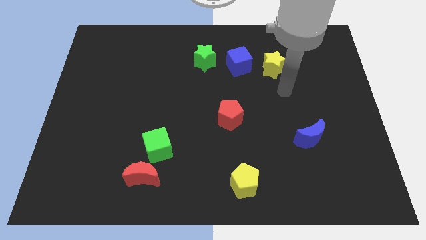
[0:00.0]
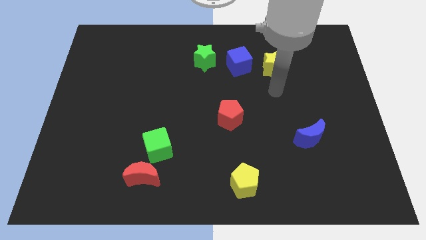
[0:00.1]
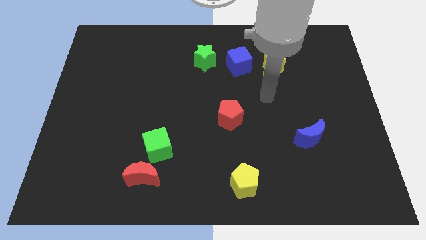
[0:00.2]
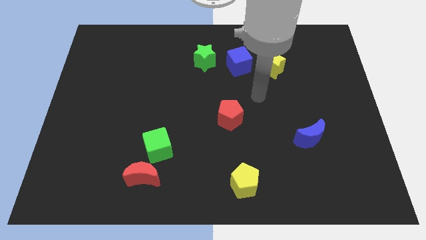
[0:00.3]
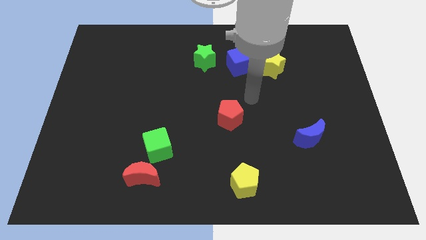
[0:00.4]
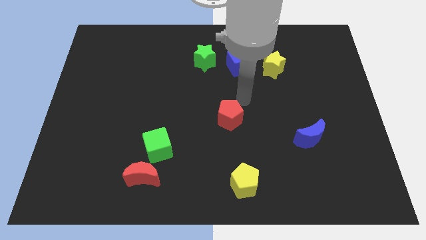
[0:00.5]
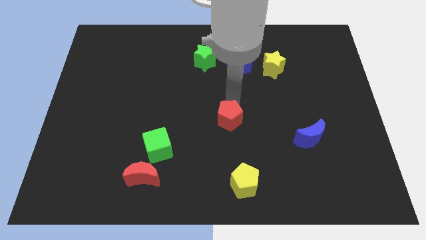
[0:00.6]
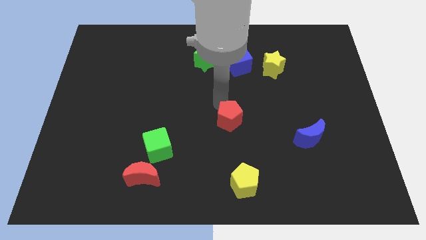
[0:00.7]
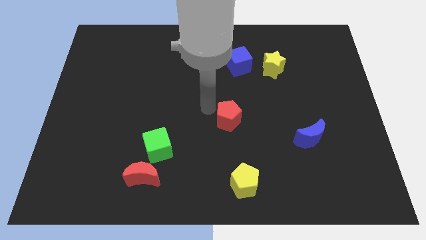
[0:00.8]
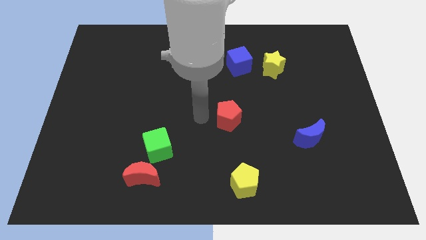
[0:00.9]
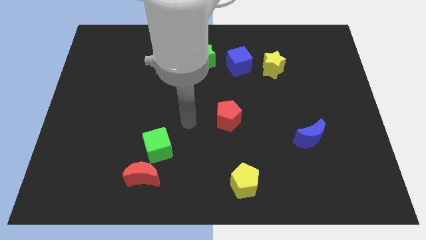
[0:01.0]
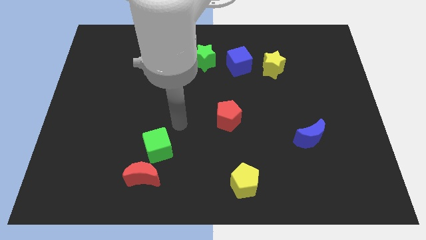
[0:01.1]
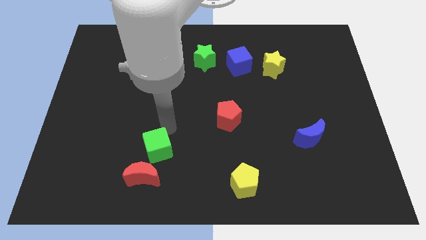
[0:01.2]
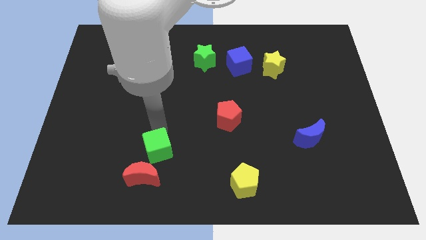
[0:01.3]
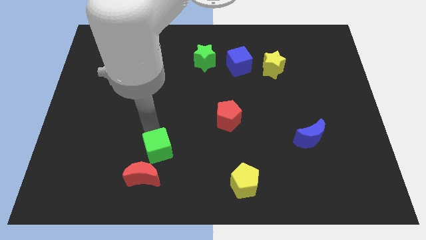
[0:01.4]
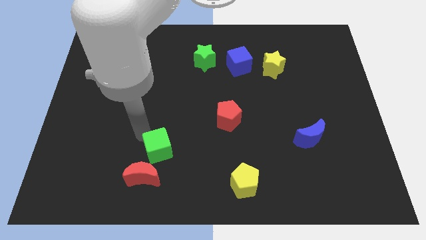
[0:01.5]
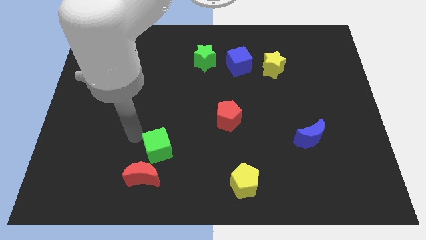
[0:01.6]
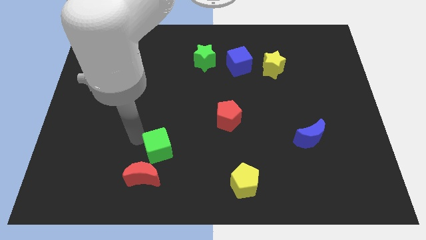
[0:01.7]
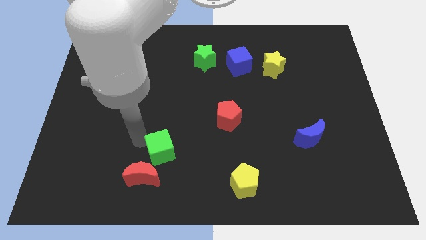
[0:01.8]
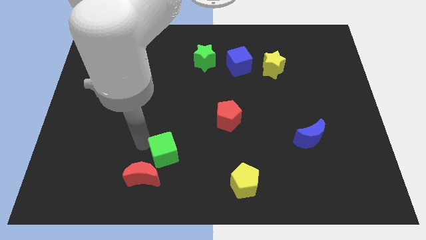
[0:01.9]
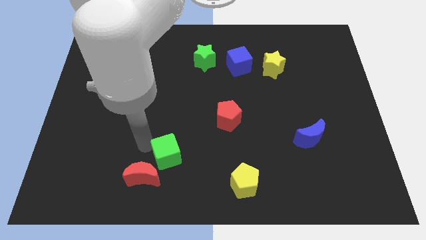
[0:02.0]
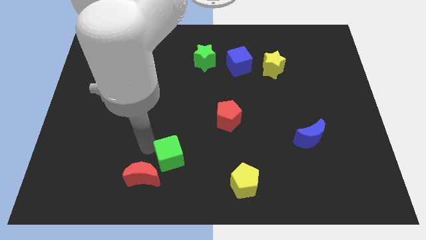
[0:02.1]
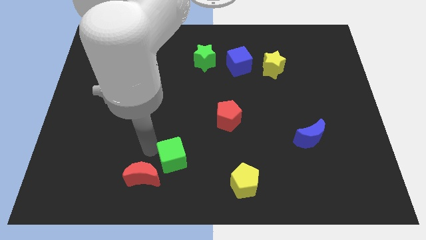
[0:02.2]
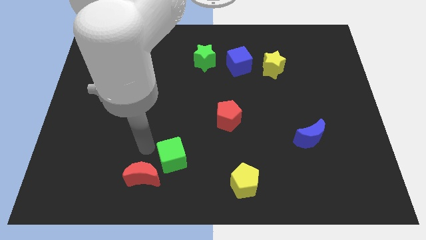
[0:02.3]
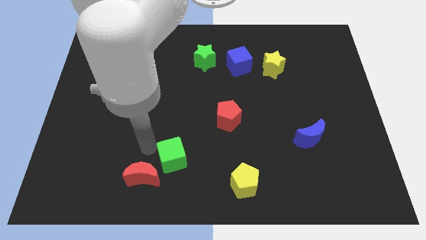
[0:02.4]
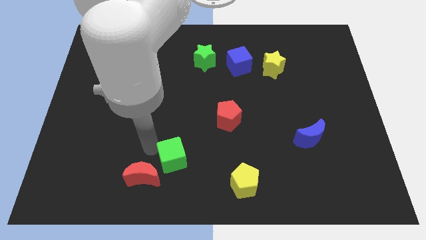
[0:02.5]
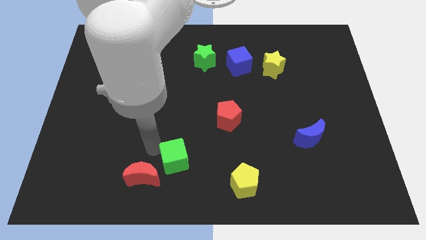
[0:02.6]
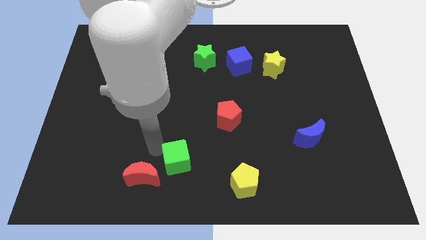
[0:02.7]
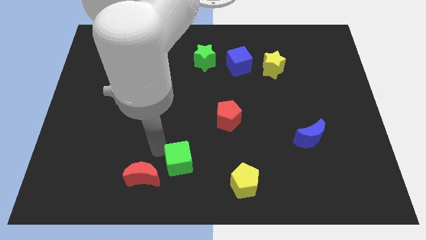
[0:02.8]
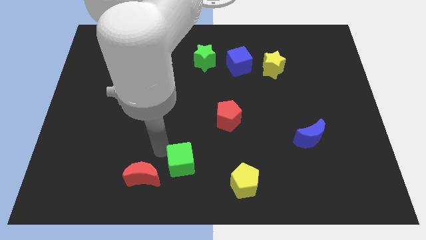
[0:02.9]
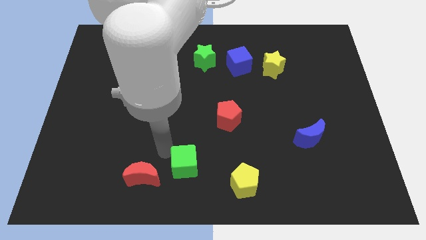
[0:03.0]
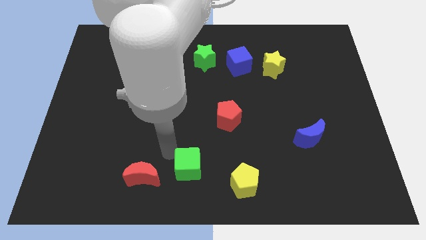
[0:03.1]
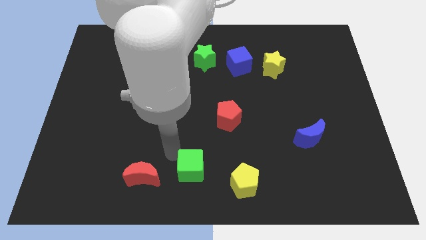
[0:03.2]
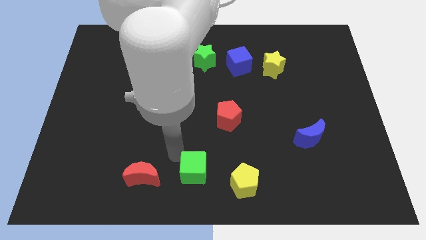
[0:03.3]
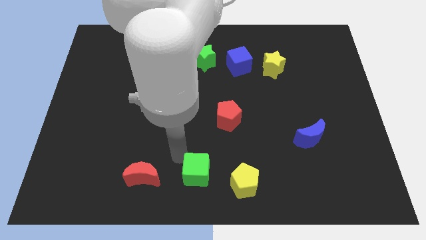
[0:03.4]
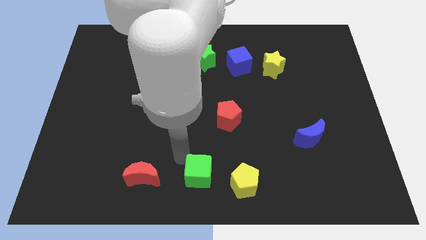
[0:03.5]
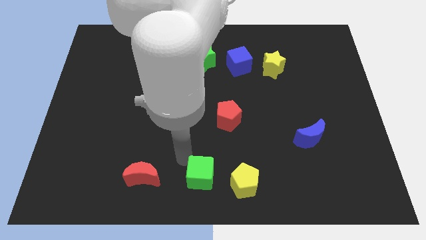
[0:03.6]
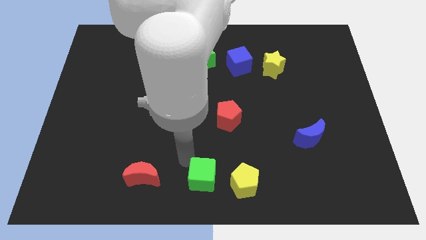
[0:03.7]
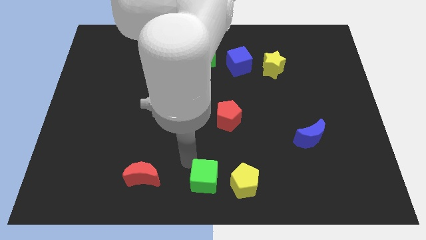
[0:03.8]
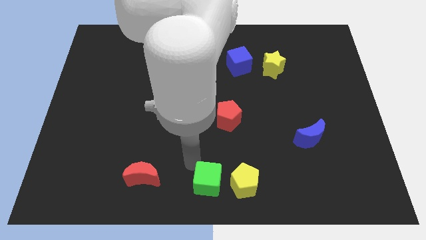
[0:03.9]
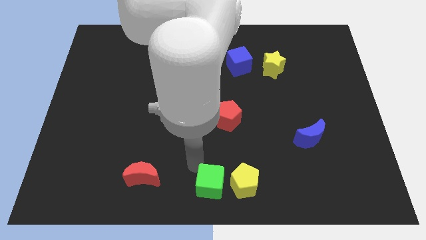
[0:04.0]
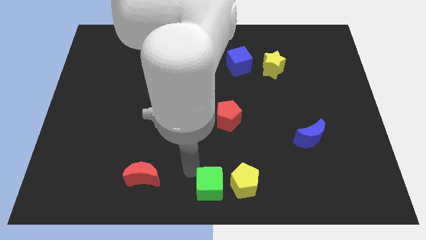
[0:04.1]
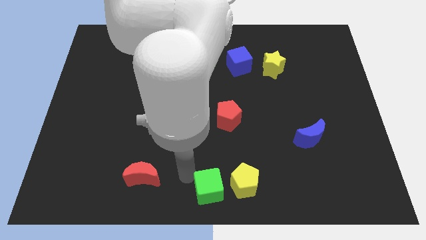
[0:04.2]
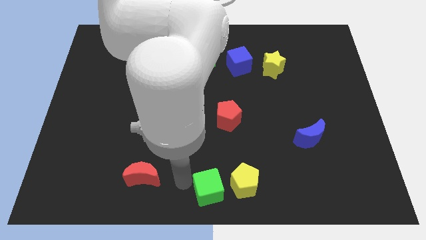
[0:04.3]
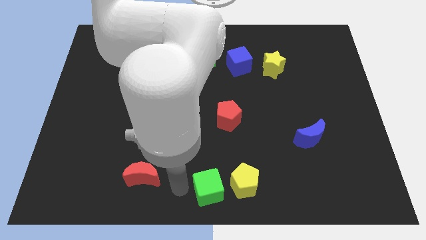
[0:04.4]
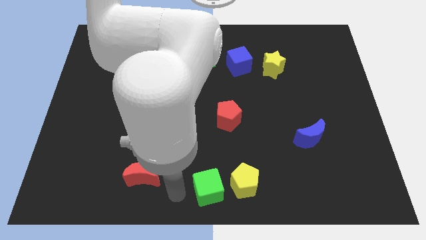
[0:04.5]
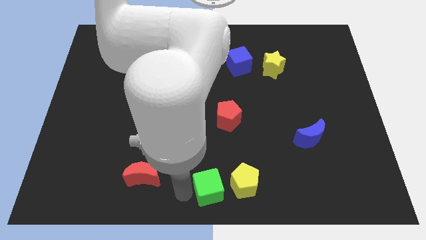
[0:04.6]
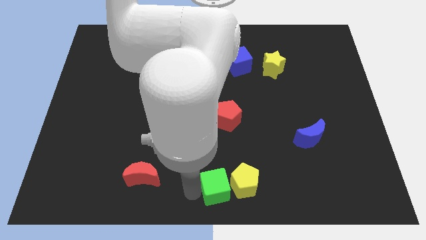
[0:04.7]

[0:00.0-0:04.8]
put the green cube close to the yellow pentagon

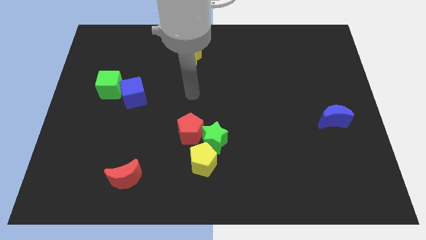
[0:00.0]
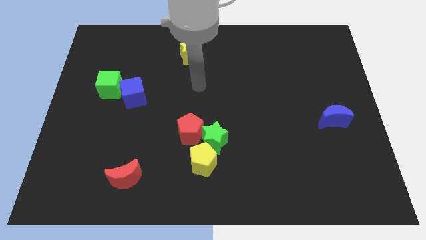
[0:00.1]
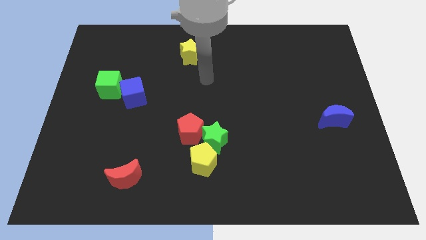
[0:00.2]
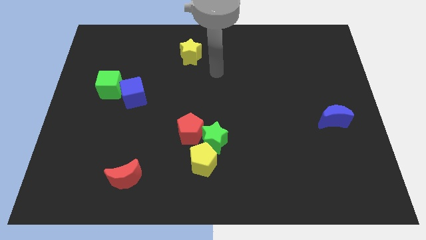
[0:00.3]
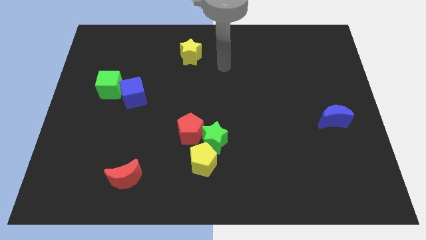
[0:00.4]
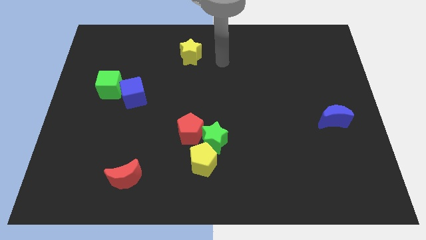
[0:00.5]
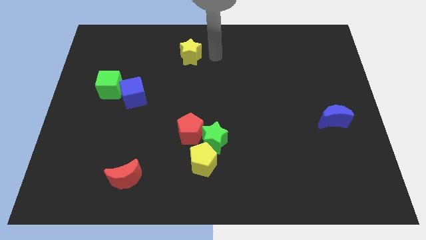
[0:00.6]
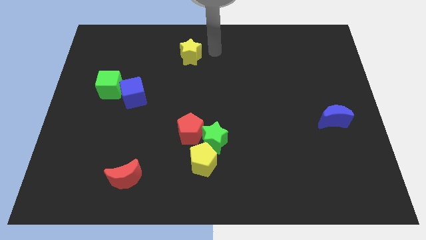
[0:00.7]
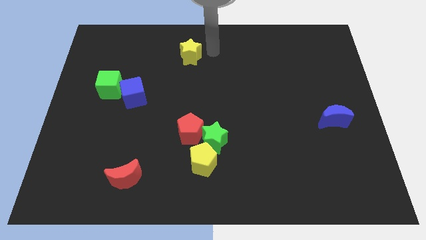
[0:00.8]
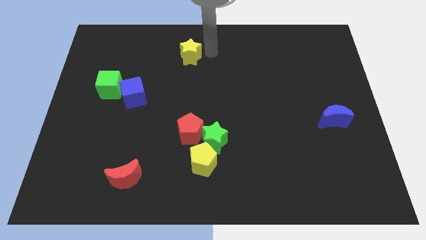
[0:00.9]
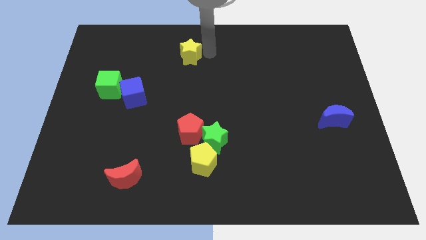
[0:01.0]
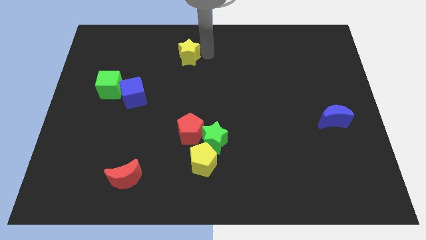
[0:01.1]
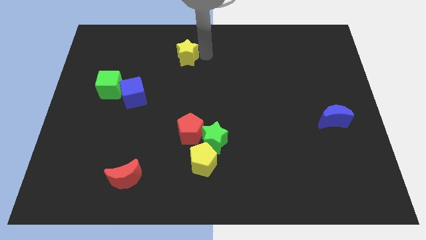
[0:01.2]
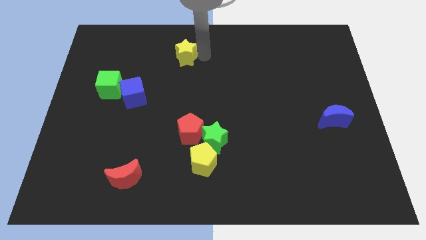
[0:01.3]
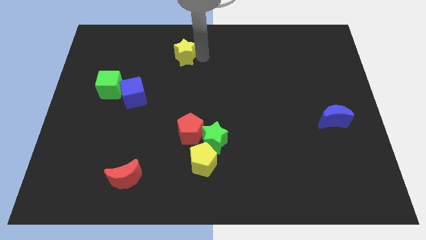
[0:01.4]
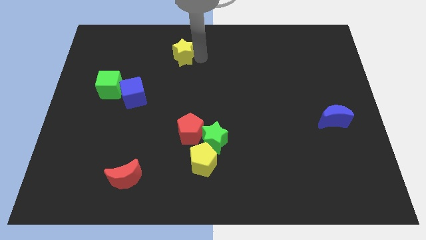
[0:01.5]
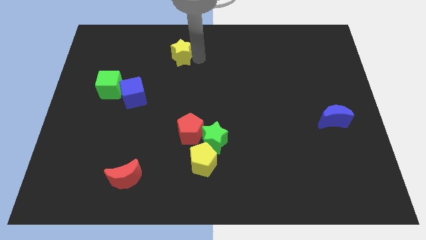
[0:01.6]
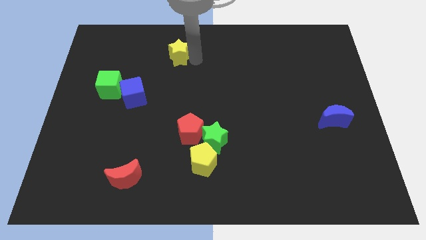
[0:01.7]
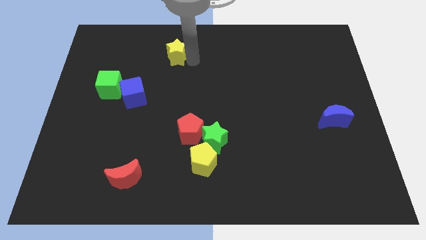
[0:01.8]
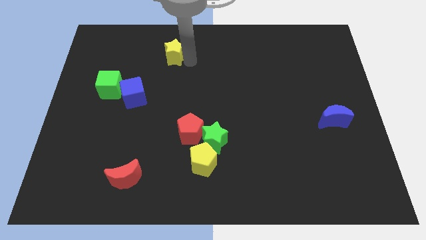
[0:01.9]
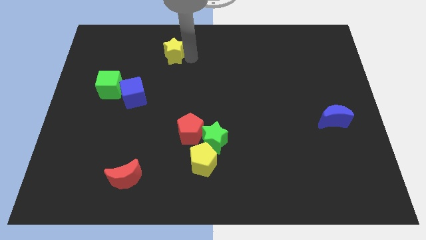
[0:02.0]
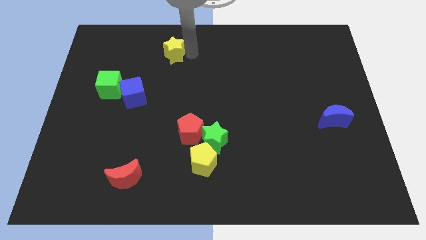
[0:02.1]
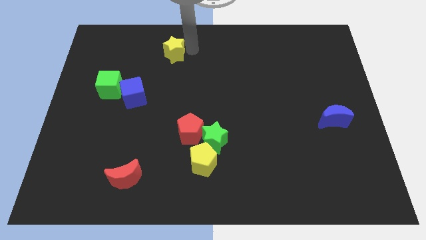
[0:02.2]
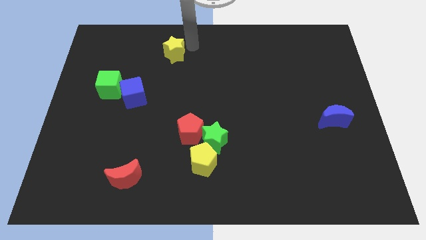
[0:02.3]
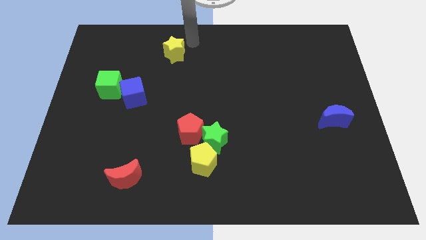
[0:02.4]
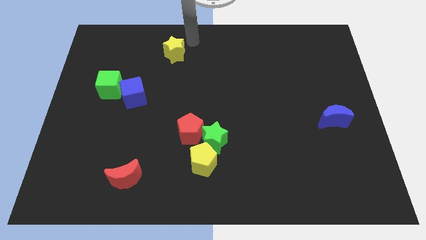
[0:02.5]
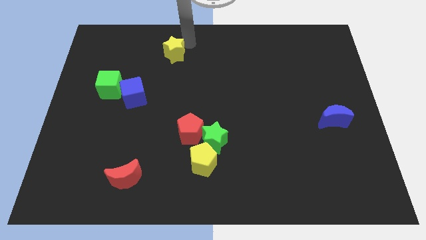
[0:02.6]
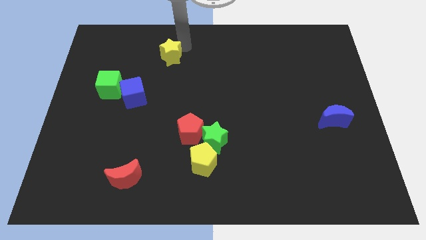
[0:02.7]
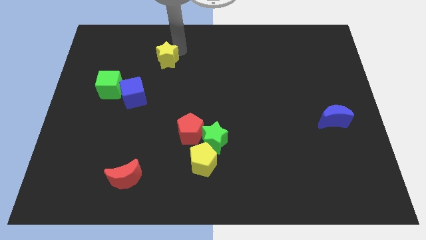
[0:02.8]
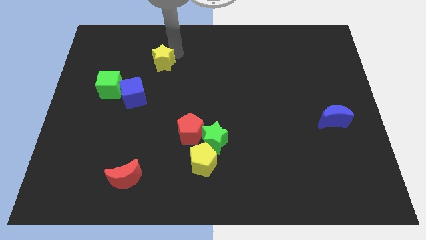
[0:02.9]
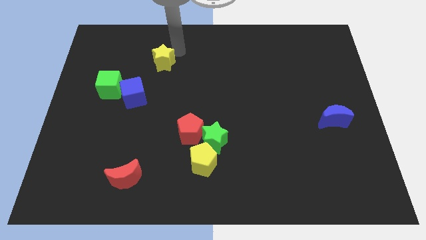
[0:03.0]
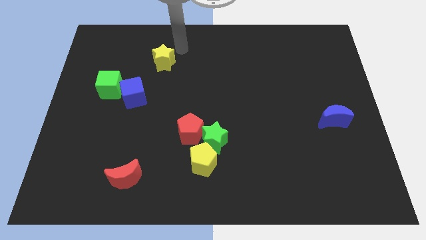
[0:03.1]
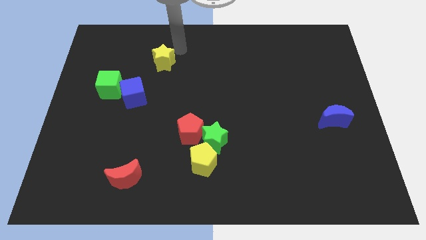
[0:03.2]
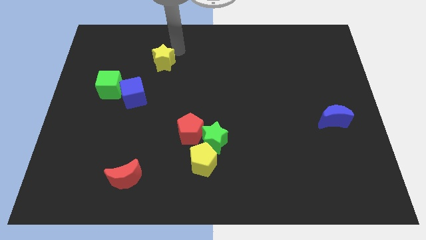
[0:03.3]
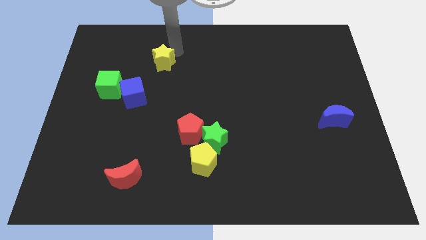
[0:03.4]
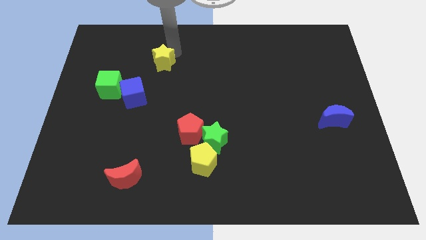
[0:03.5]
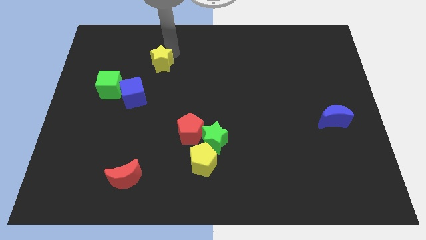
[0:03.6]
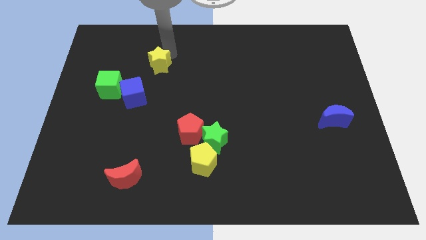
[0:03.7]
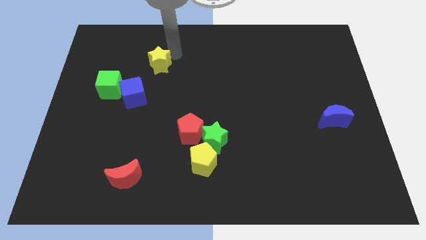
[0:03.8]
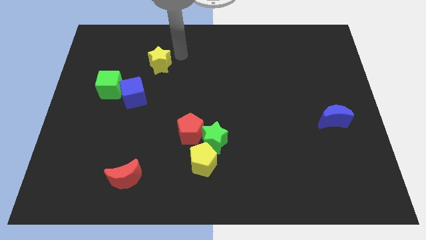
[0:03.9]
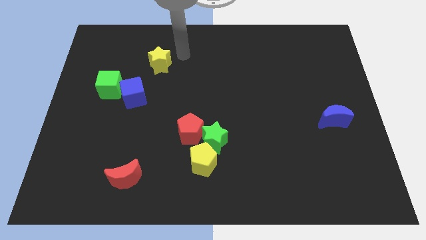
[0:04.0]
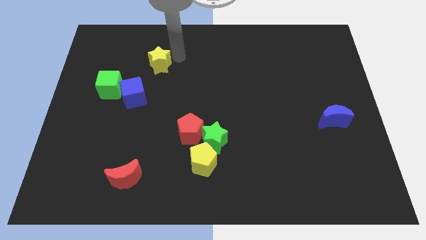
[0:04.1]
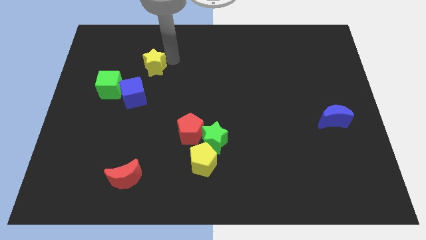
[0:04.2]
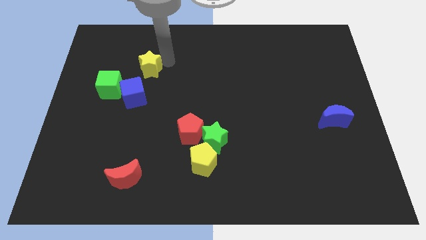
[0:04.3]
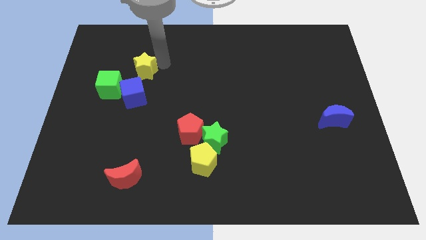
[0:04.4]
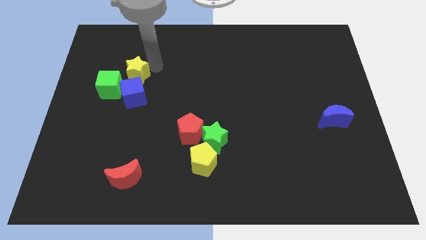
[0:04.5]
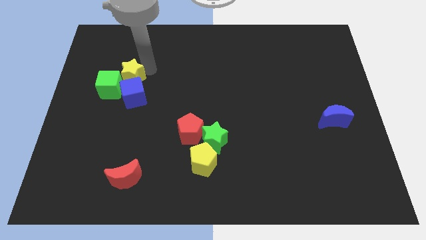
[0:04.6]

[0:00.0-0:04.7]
put the yellow star towards the green cube
